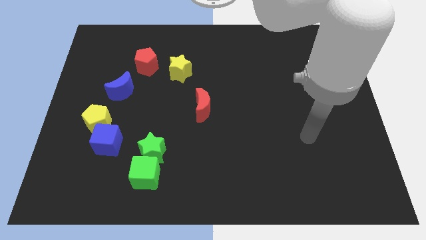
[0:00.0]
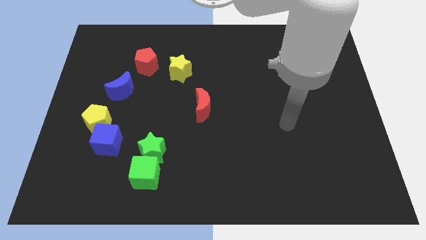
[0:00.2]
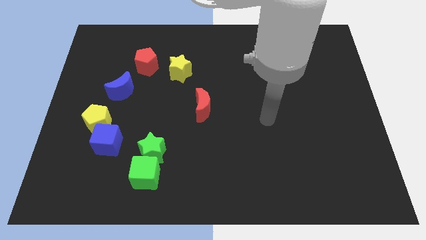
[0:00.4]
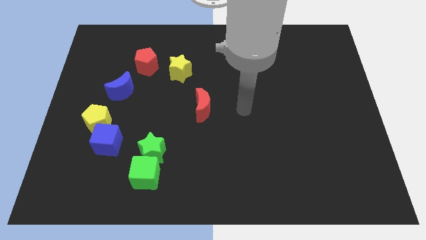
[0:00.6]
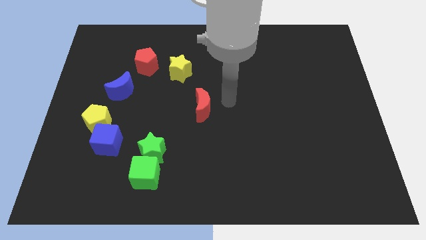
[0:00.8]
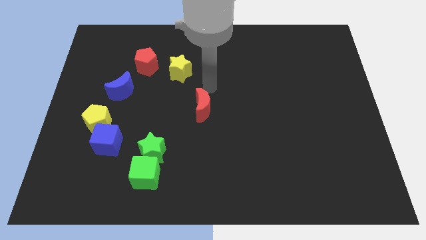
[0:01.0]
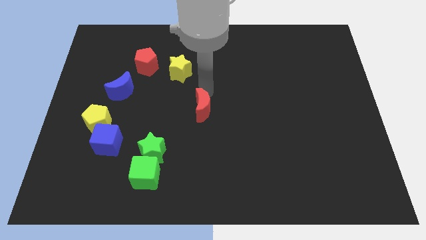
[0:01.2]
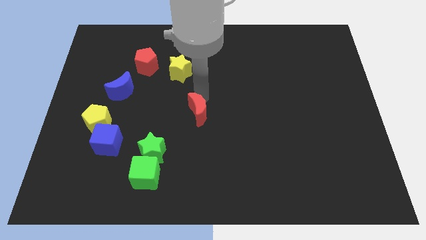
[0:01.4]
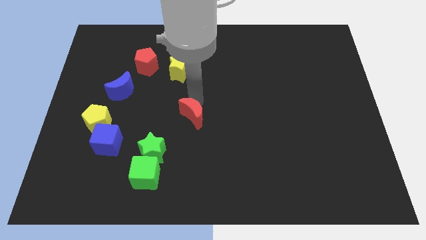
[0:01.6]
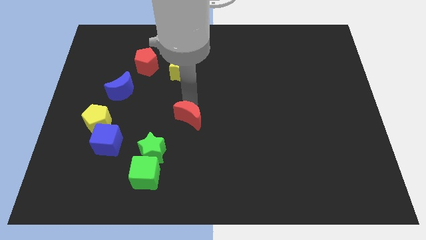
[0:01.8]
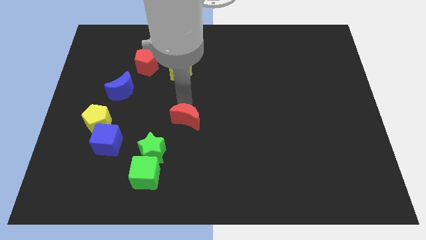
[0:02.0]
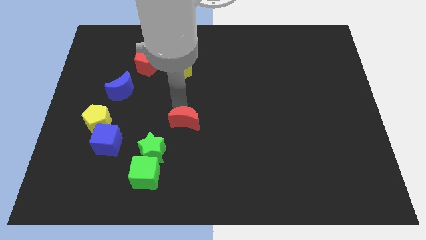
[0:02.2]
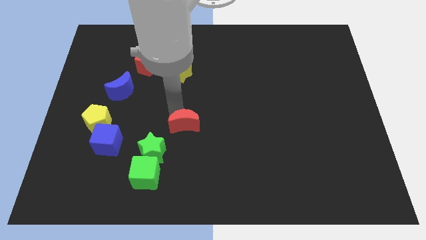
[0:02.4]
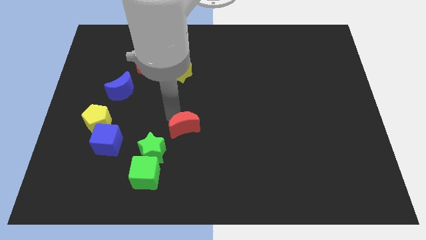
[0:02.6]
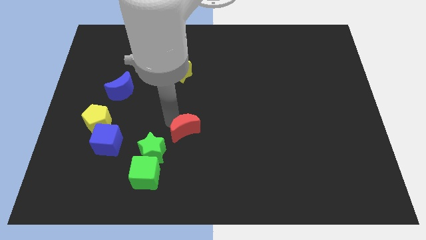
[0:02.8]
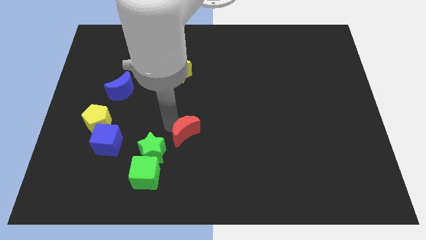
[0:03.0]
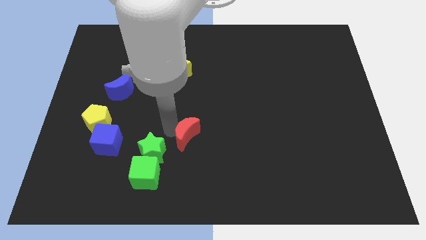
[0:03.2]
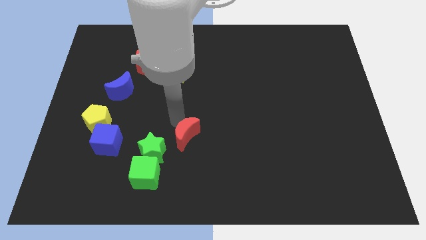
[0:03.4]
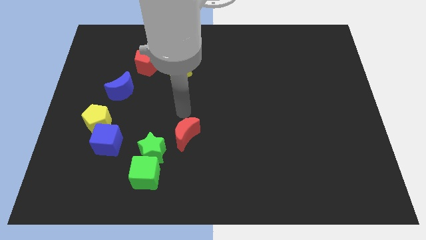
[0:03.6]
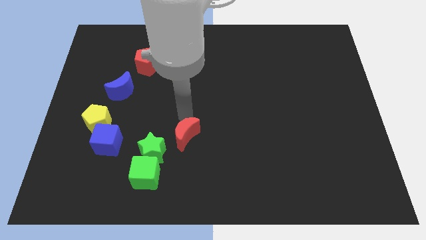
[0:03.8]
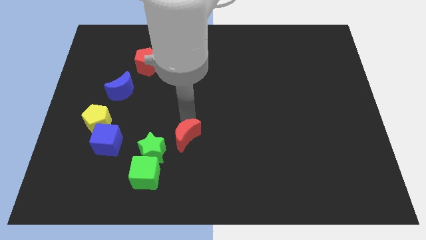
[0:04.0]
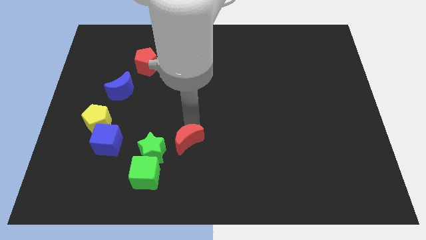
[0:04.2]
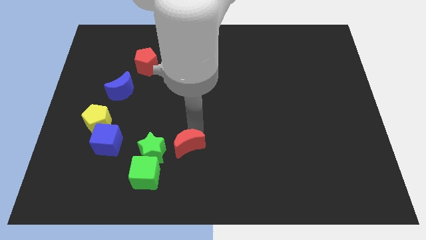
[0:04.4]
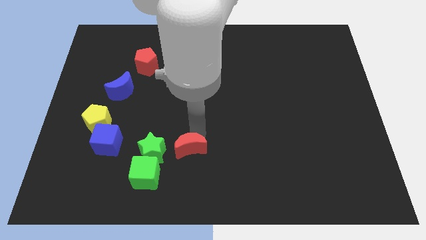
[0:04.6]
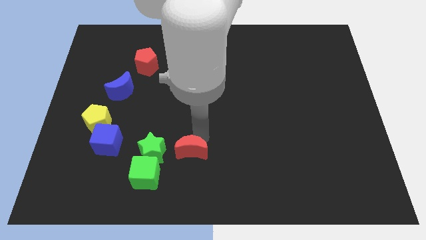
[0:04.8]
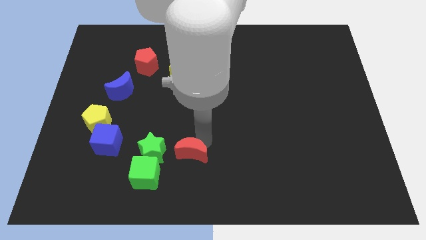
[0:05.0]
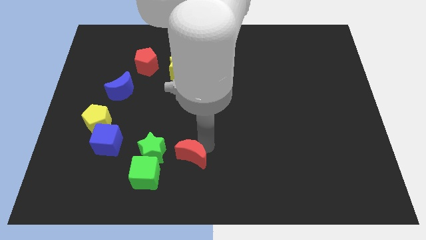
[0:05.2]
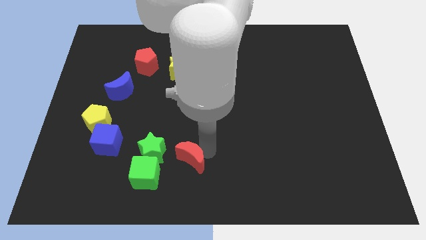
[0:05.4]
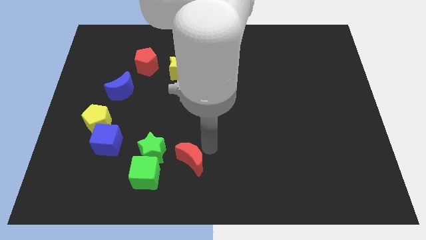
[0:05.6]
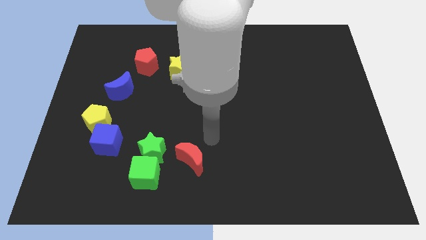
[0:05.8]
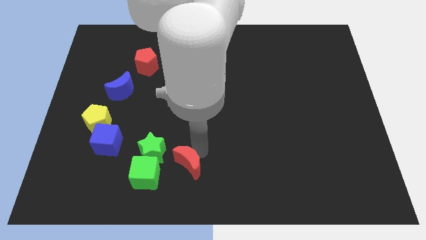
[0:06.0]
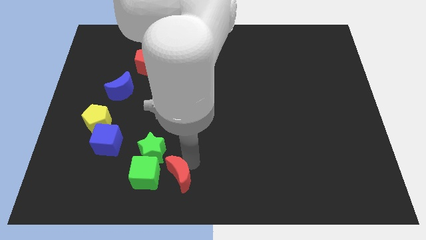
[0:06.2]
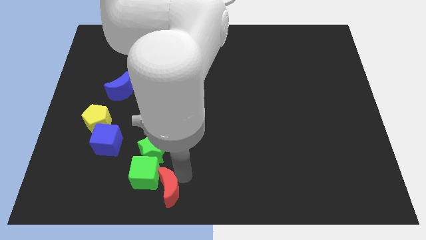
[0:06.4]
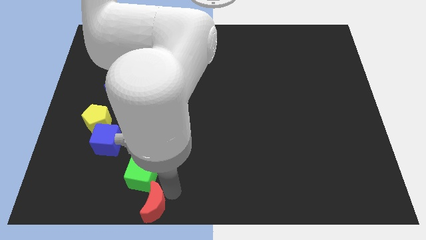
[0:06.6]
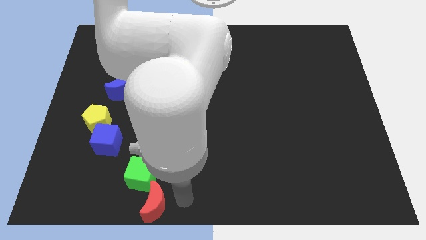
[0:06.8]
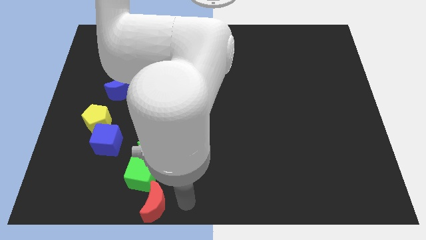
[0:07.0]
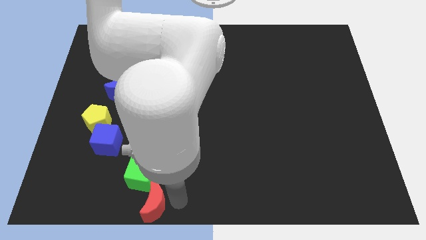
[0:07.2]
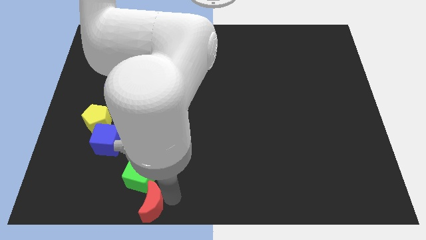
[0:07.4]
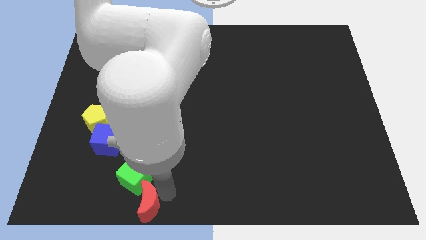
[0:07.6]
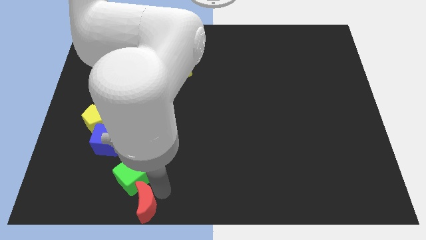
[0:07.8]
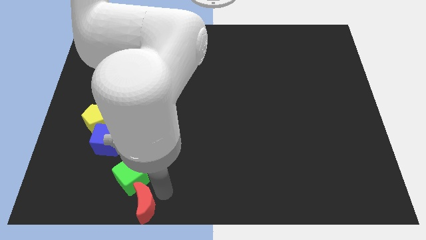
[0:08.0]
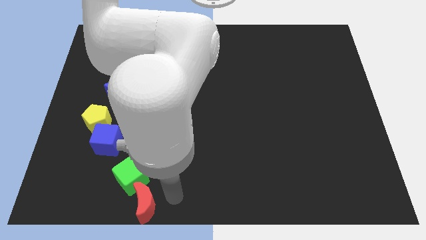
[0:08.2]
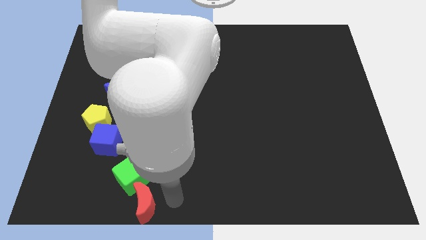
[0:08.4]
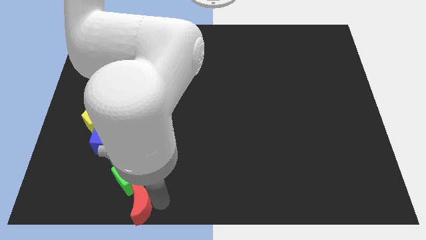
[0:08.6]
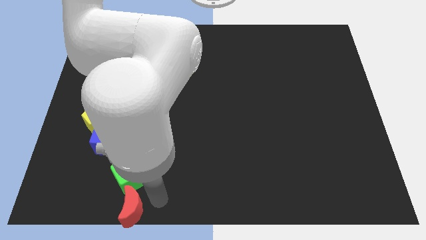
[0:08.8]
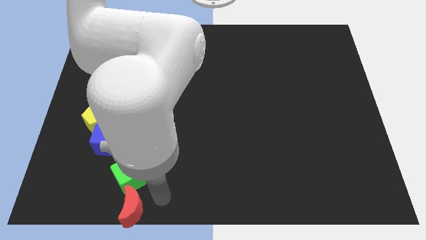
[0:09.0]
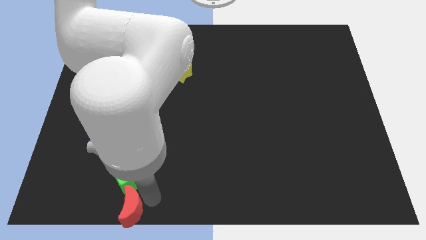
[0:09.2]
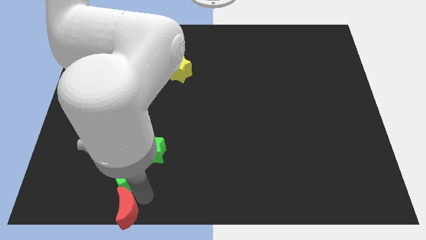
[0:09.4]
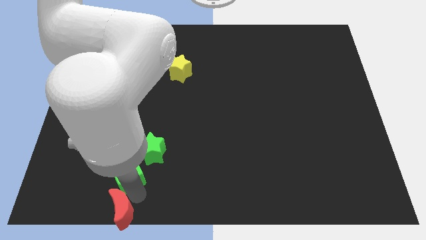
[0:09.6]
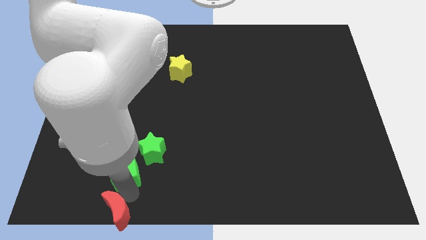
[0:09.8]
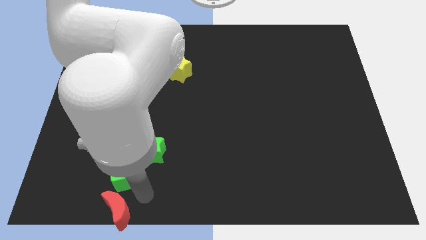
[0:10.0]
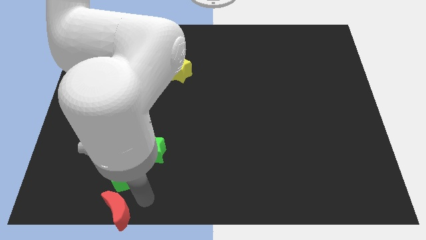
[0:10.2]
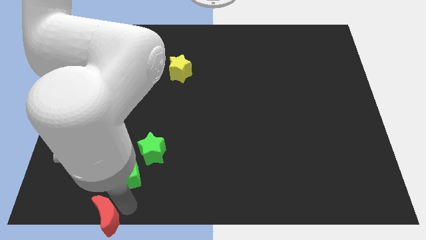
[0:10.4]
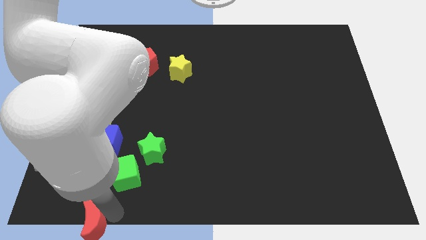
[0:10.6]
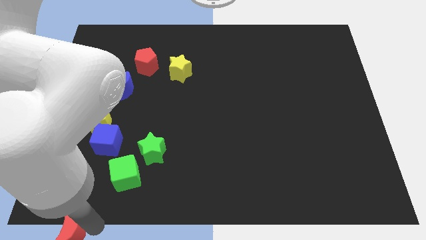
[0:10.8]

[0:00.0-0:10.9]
move the red moon to the bottom left

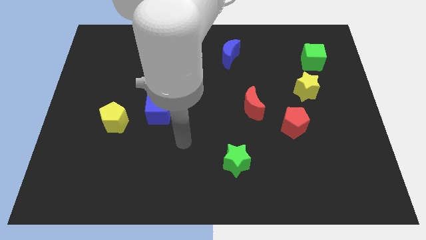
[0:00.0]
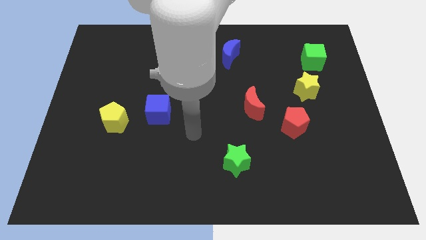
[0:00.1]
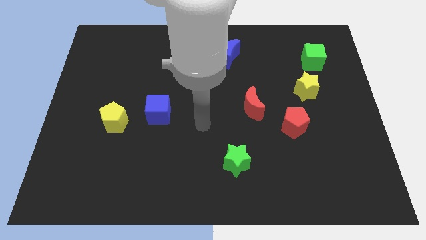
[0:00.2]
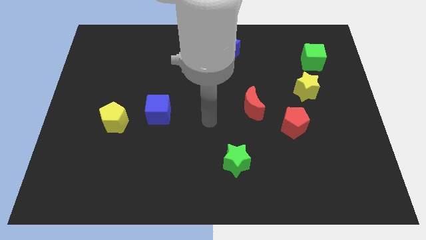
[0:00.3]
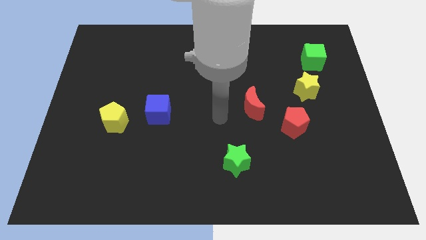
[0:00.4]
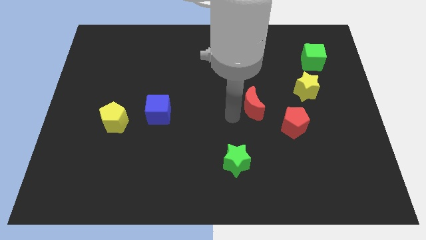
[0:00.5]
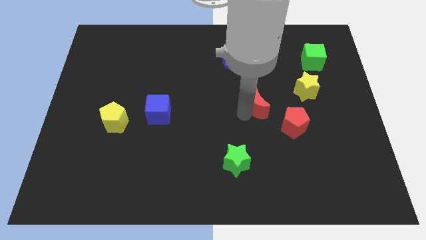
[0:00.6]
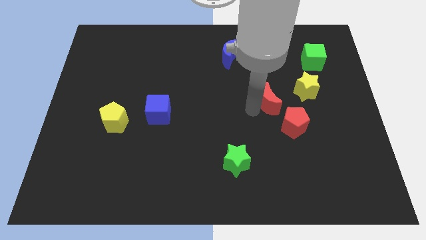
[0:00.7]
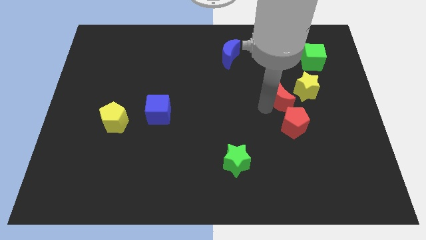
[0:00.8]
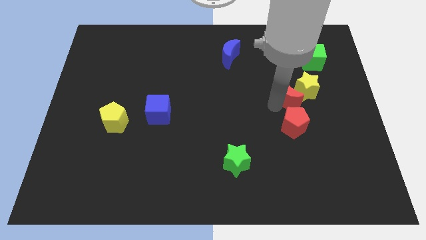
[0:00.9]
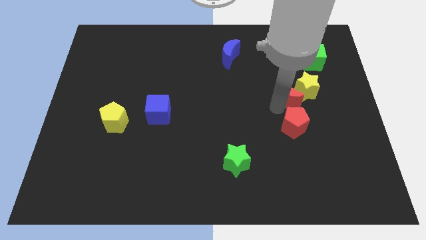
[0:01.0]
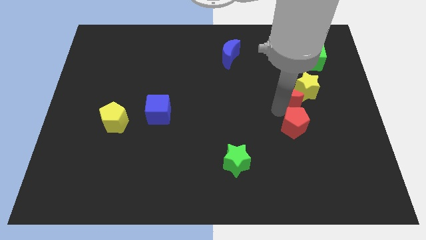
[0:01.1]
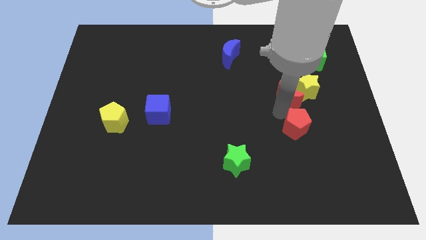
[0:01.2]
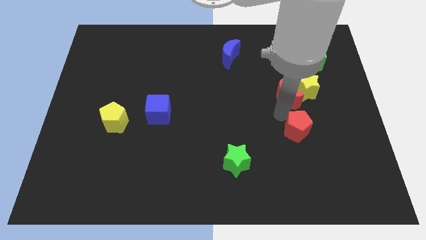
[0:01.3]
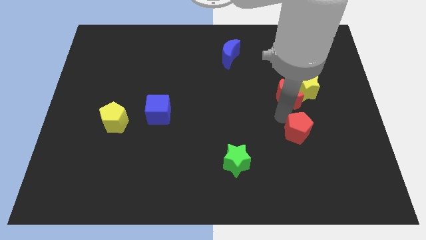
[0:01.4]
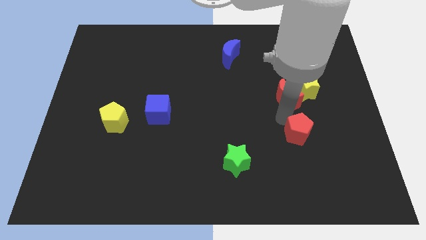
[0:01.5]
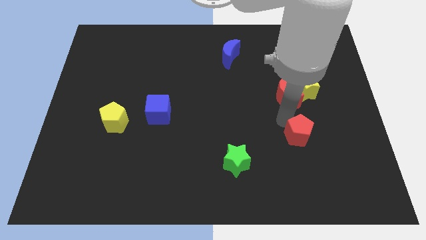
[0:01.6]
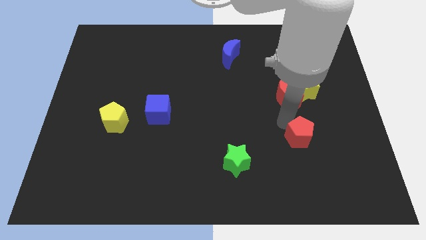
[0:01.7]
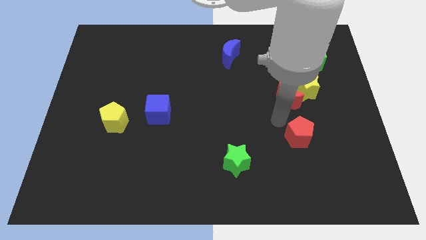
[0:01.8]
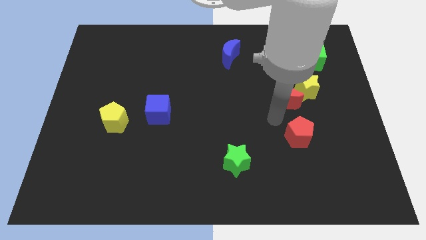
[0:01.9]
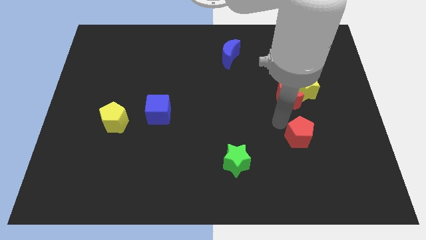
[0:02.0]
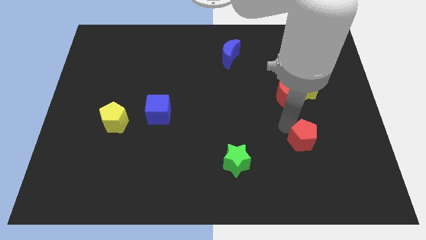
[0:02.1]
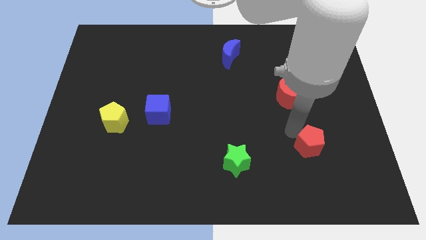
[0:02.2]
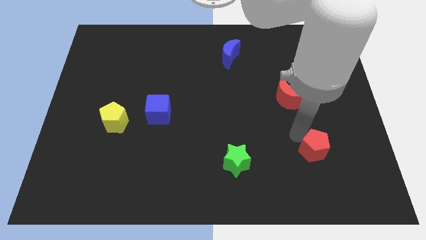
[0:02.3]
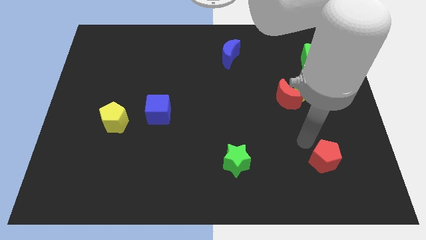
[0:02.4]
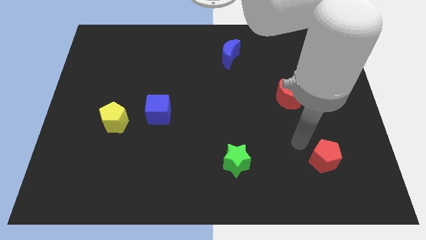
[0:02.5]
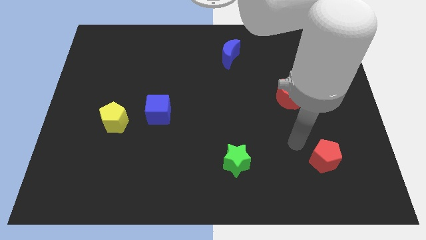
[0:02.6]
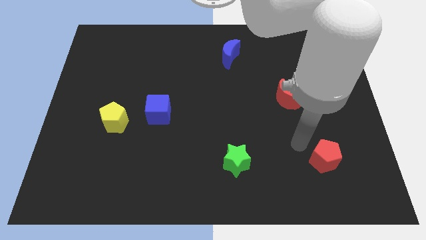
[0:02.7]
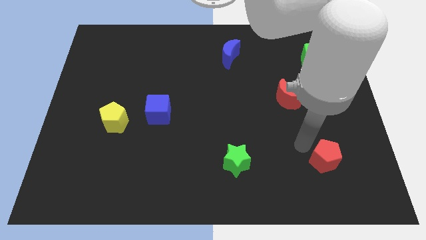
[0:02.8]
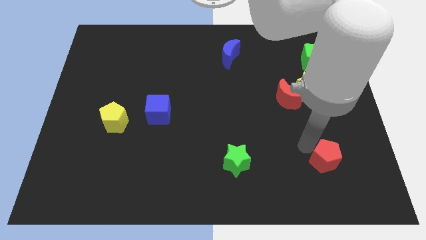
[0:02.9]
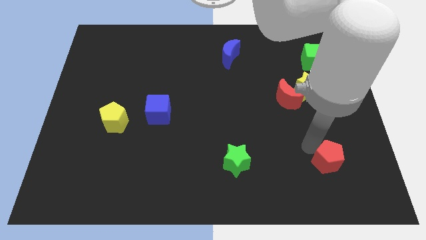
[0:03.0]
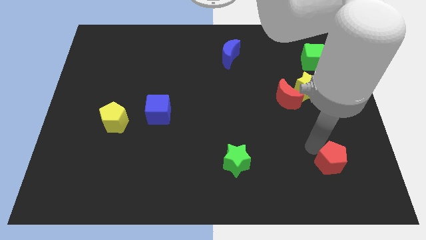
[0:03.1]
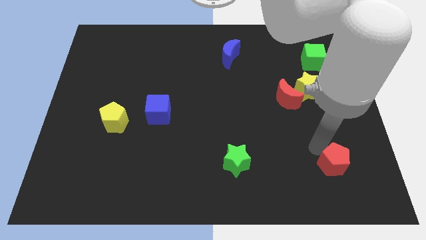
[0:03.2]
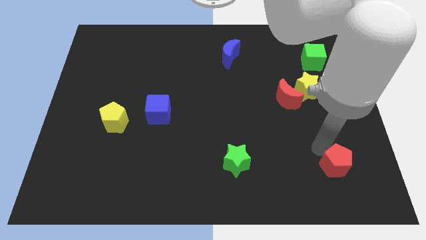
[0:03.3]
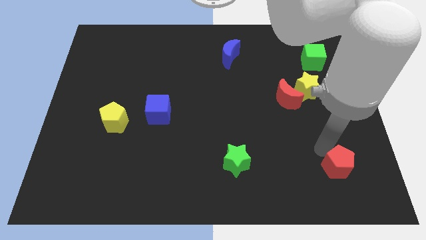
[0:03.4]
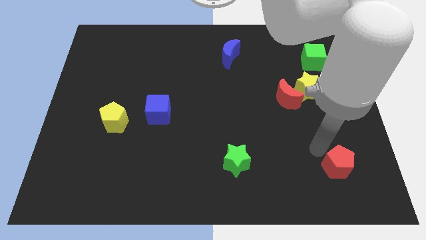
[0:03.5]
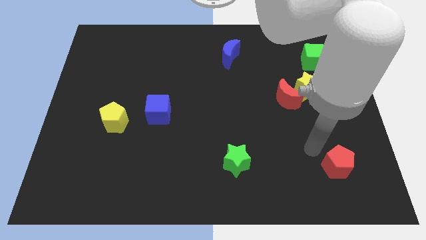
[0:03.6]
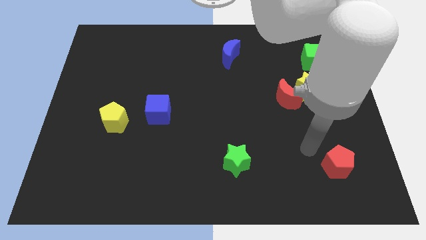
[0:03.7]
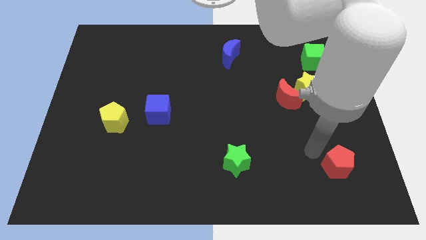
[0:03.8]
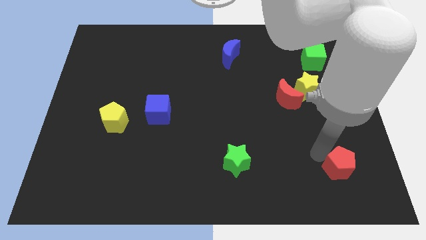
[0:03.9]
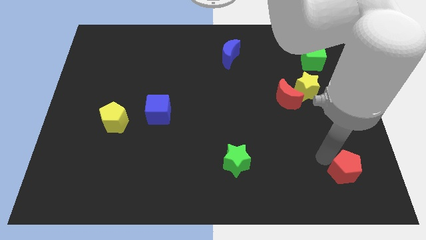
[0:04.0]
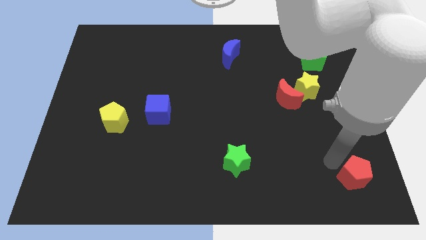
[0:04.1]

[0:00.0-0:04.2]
push the red pentagon to the bottom right
